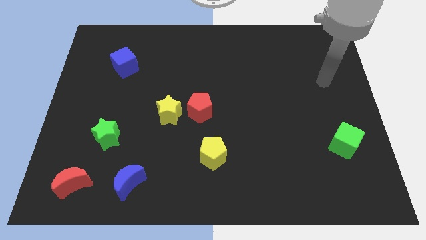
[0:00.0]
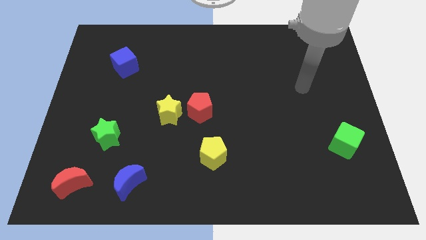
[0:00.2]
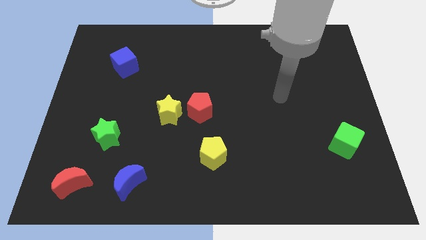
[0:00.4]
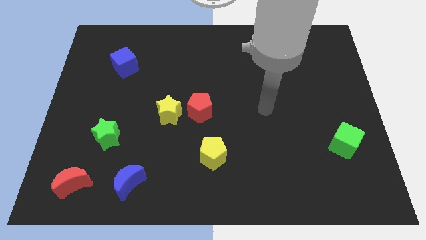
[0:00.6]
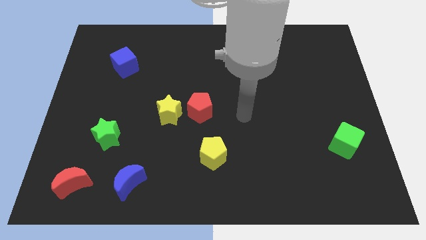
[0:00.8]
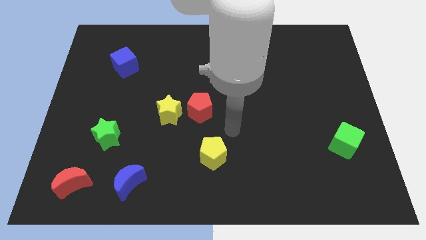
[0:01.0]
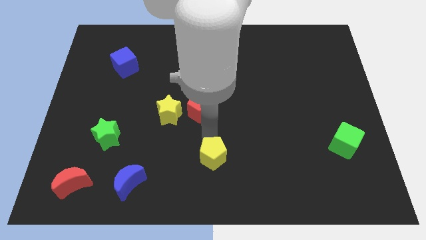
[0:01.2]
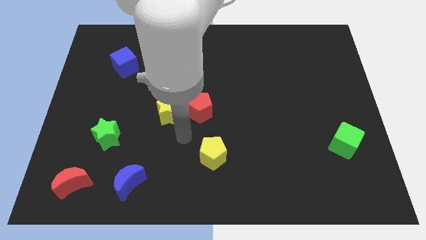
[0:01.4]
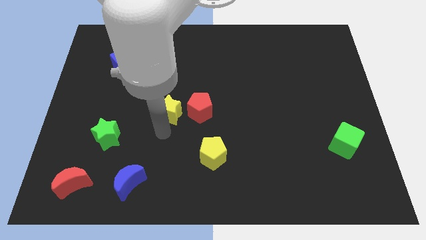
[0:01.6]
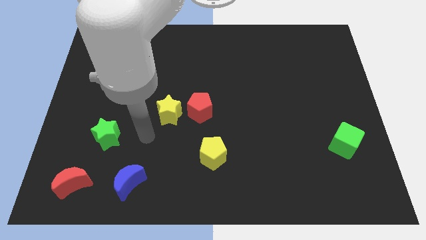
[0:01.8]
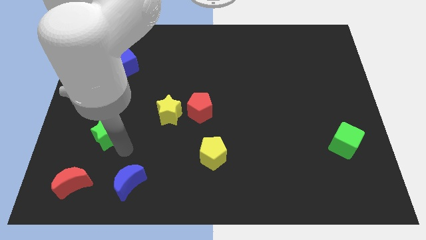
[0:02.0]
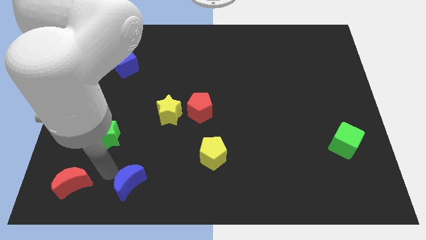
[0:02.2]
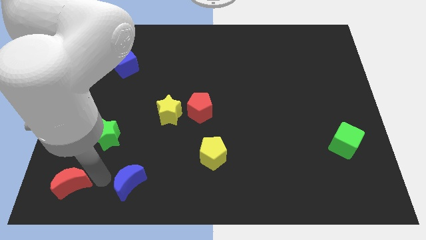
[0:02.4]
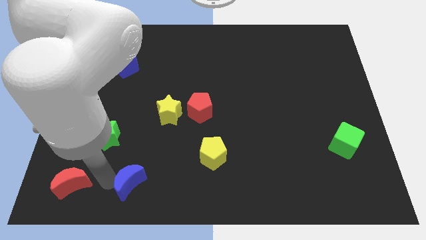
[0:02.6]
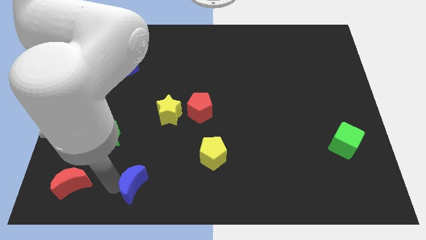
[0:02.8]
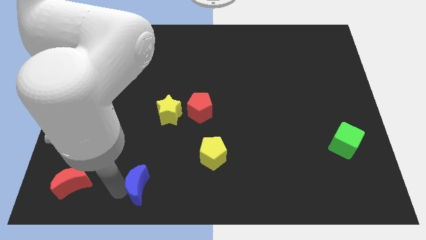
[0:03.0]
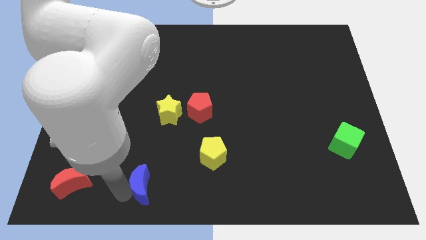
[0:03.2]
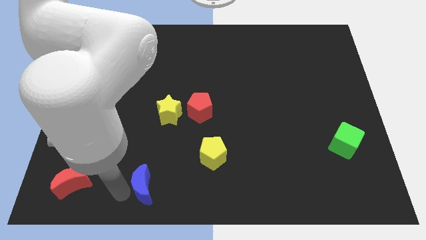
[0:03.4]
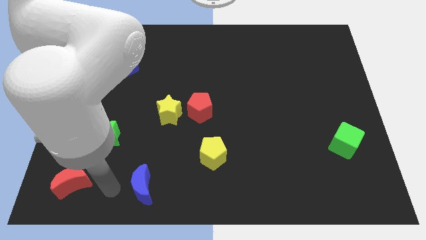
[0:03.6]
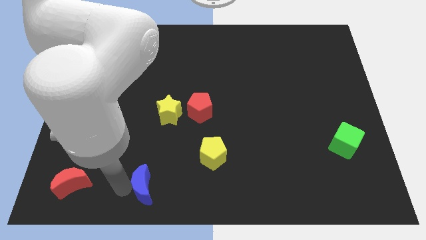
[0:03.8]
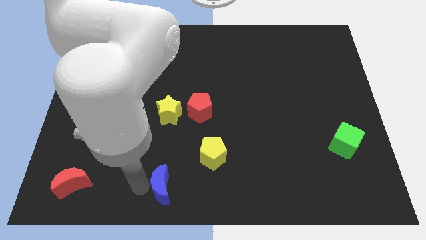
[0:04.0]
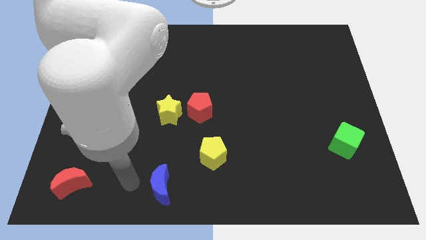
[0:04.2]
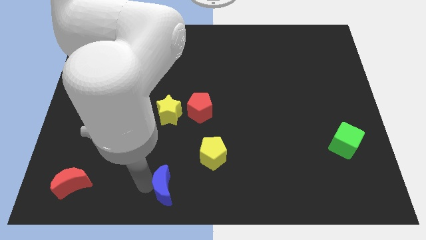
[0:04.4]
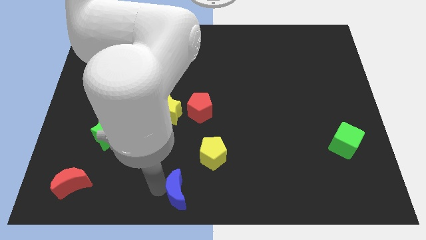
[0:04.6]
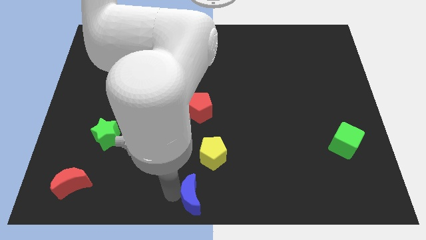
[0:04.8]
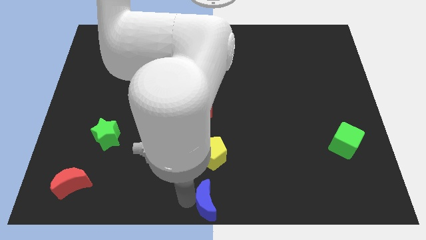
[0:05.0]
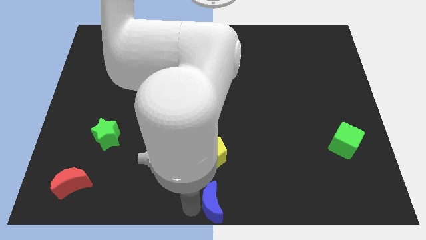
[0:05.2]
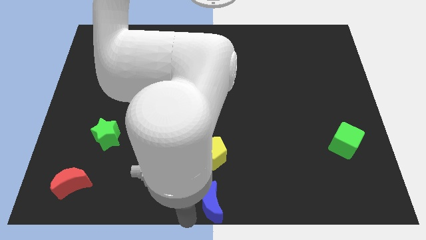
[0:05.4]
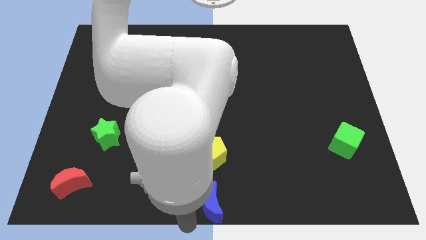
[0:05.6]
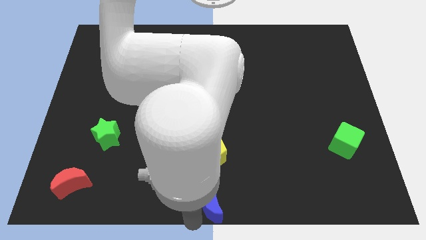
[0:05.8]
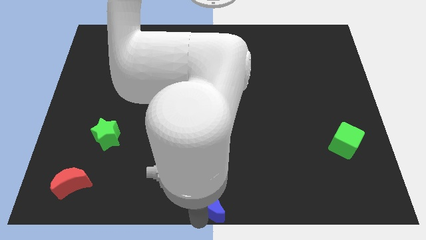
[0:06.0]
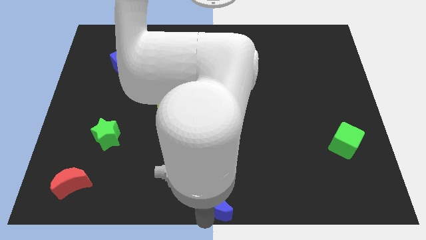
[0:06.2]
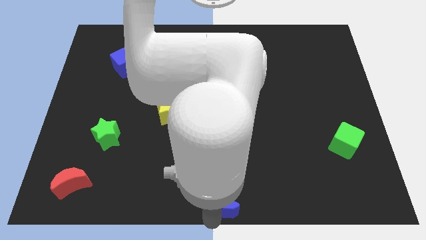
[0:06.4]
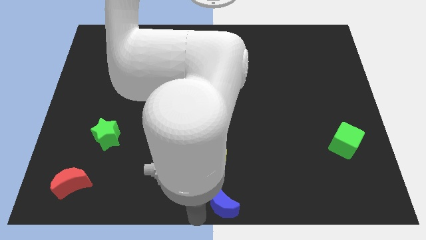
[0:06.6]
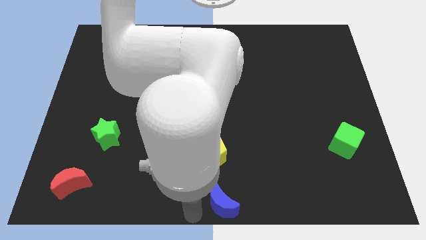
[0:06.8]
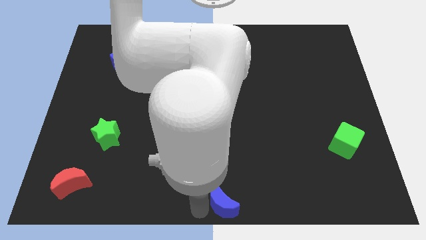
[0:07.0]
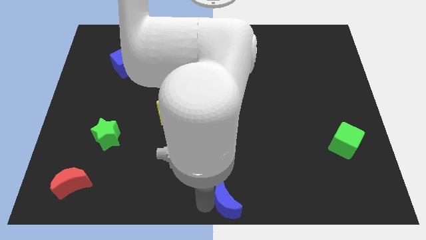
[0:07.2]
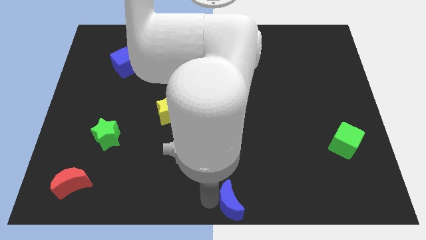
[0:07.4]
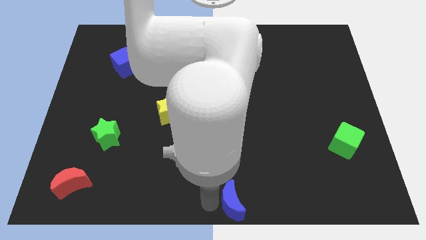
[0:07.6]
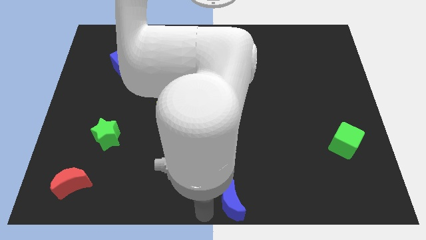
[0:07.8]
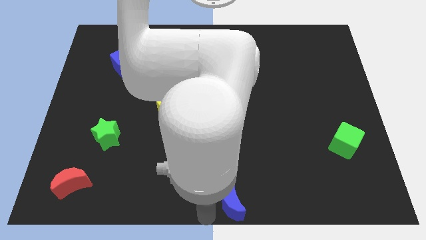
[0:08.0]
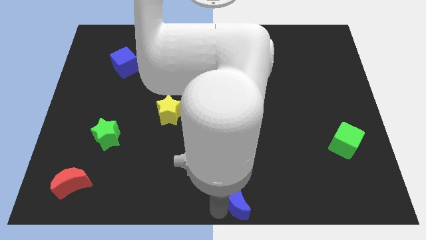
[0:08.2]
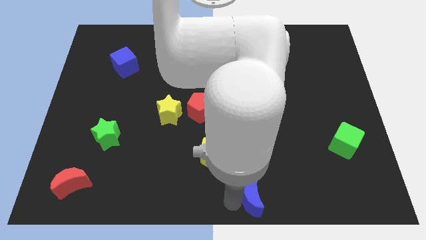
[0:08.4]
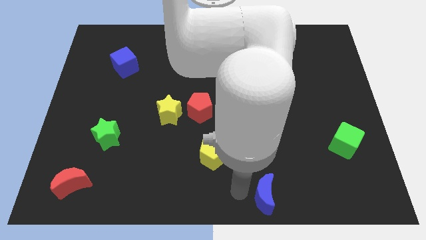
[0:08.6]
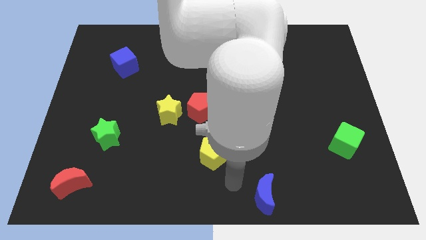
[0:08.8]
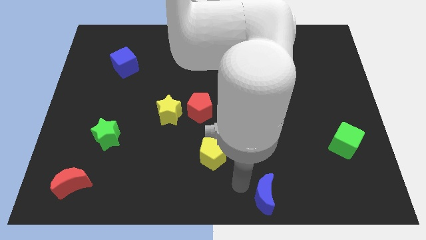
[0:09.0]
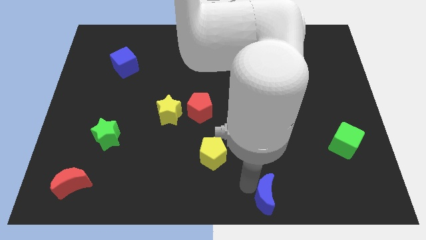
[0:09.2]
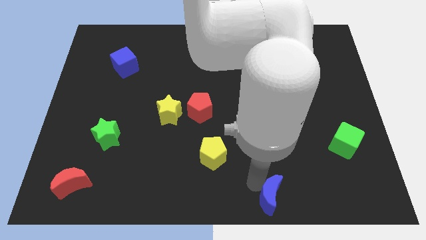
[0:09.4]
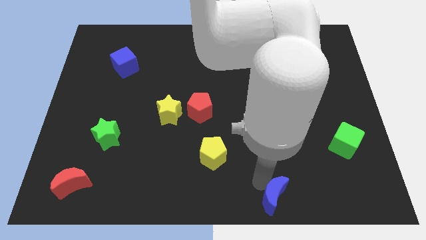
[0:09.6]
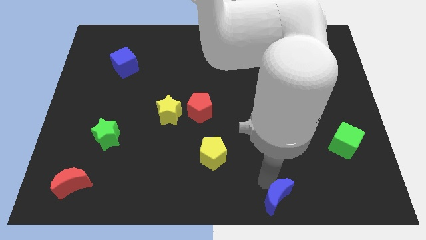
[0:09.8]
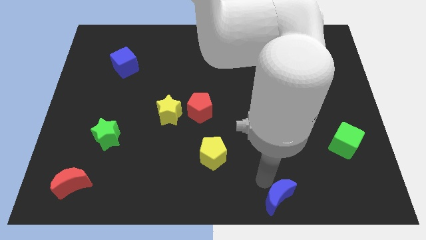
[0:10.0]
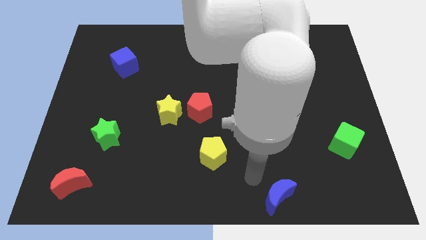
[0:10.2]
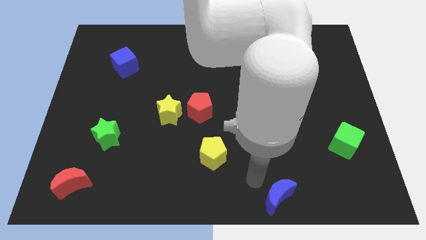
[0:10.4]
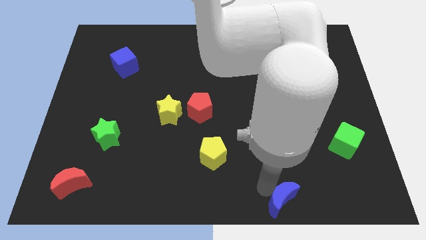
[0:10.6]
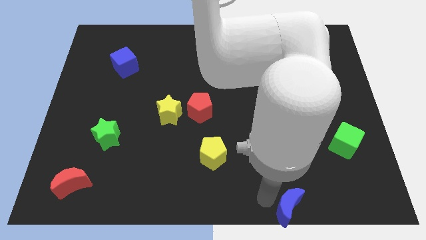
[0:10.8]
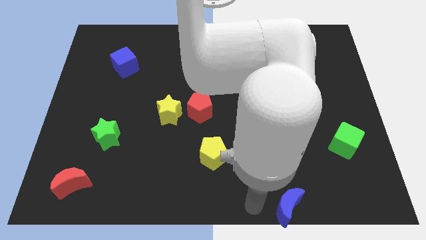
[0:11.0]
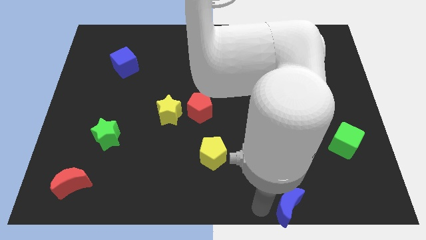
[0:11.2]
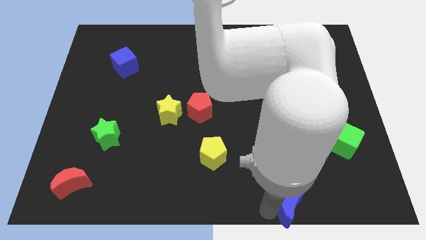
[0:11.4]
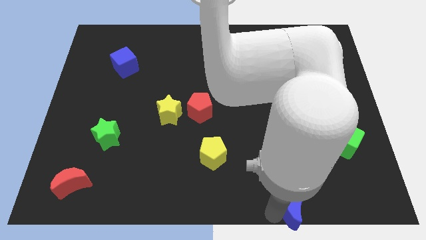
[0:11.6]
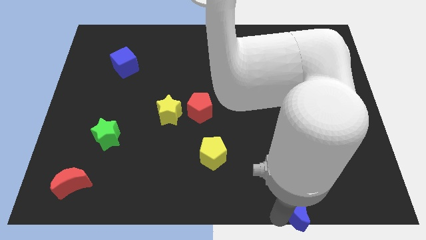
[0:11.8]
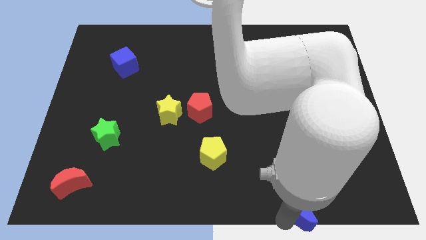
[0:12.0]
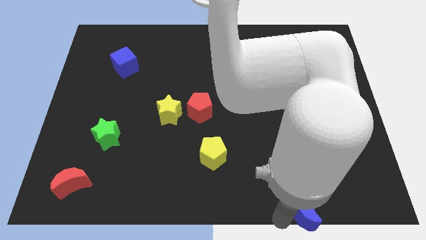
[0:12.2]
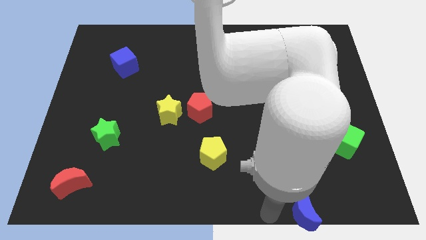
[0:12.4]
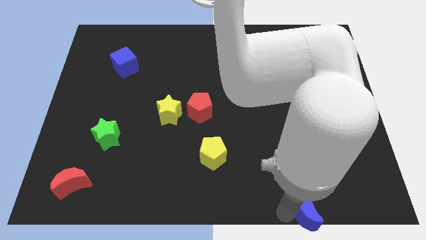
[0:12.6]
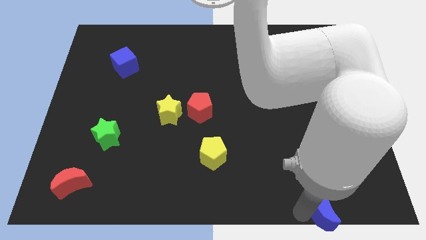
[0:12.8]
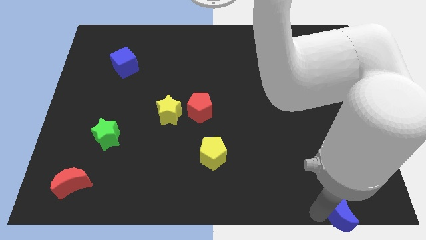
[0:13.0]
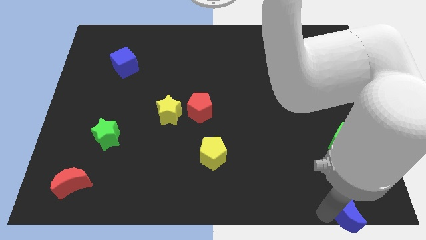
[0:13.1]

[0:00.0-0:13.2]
push the blue moon to the bottom right of the board
